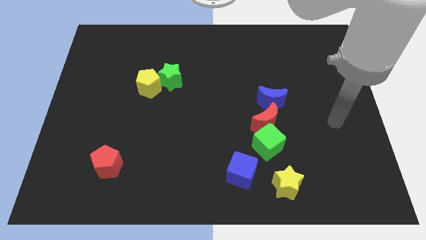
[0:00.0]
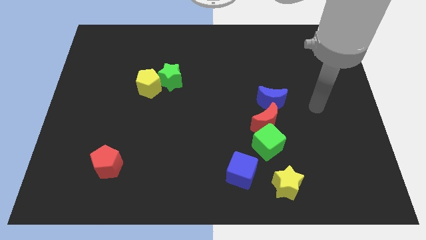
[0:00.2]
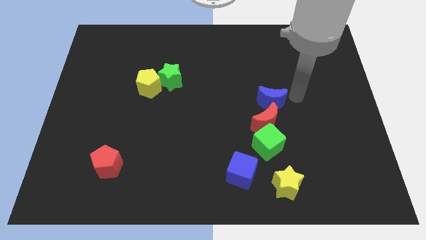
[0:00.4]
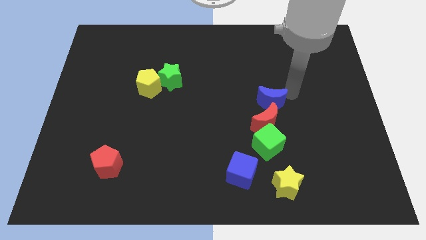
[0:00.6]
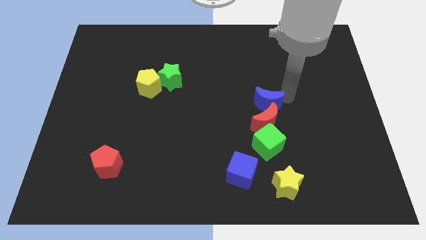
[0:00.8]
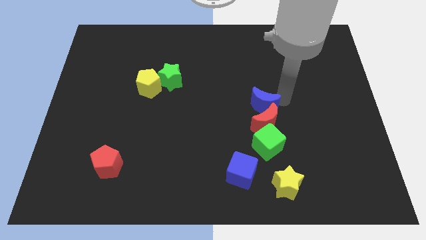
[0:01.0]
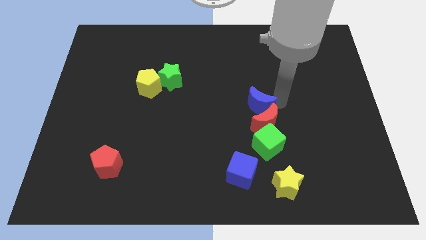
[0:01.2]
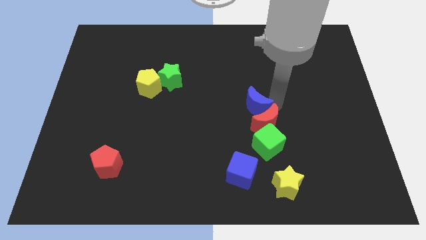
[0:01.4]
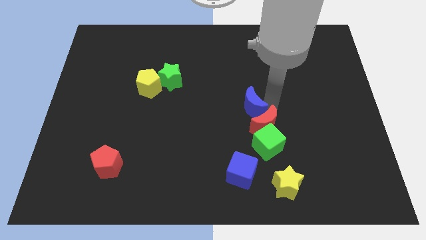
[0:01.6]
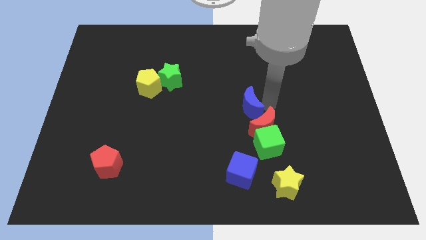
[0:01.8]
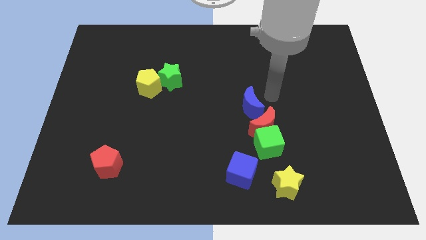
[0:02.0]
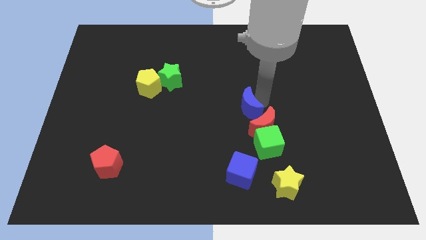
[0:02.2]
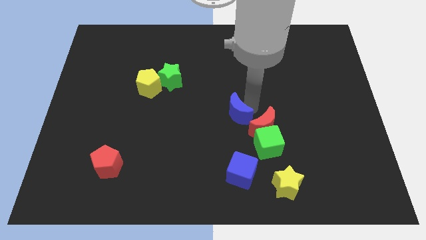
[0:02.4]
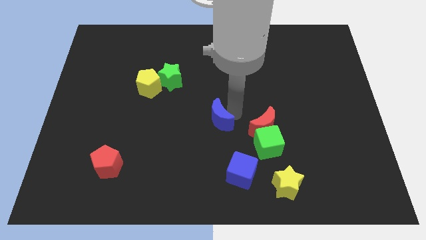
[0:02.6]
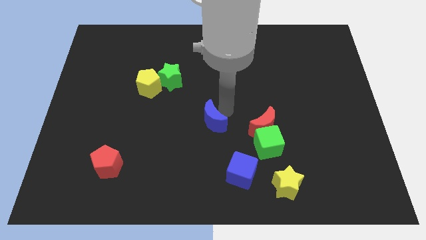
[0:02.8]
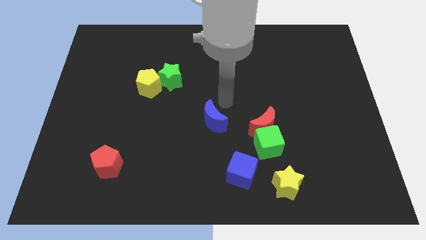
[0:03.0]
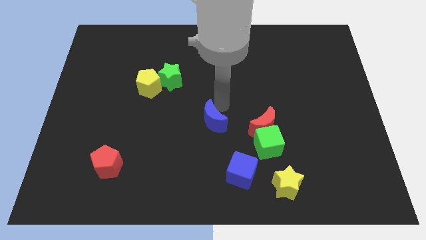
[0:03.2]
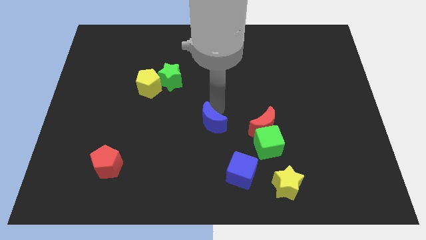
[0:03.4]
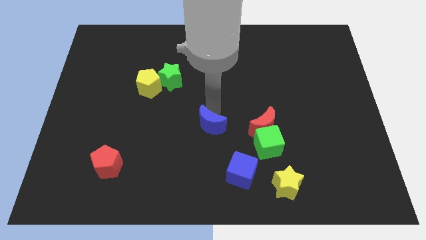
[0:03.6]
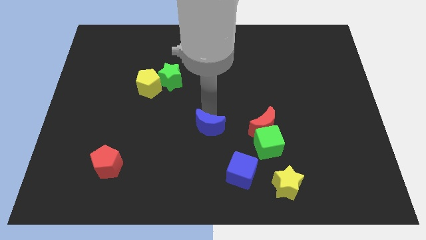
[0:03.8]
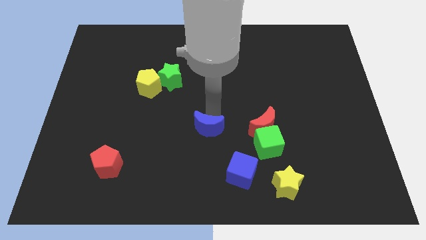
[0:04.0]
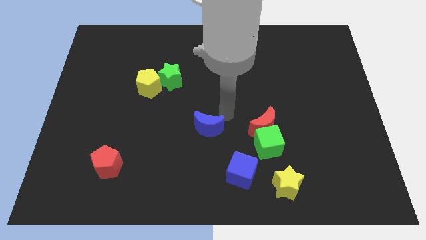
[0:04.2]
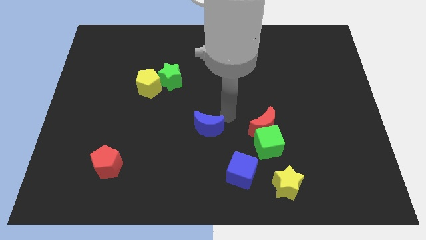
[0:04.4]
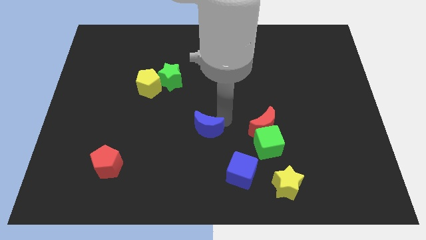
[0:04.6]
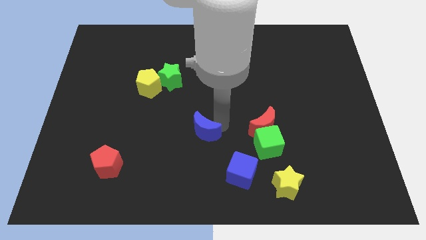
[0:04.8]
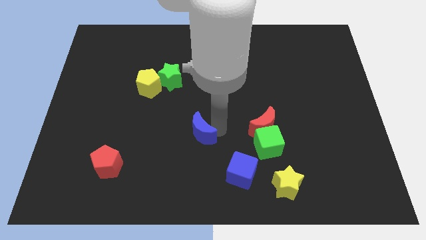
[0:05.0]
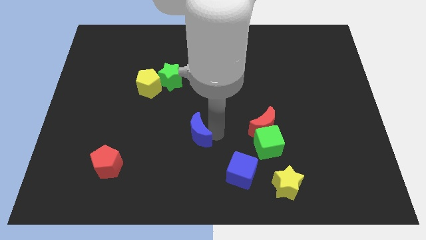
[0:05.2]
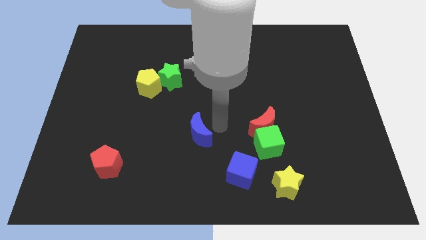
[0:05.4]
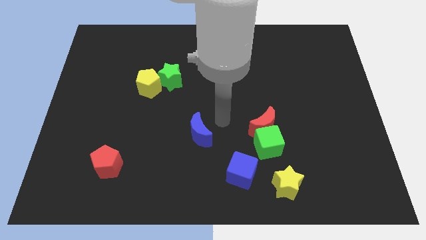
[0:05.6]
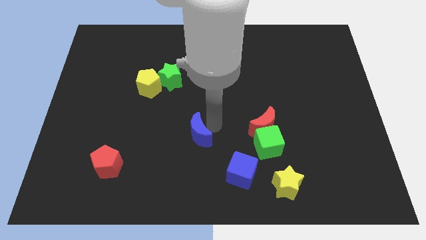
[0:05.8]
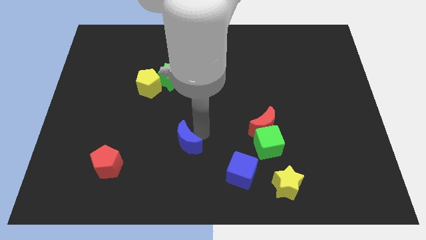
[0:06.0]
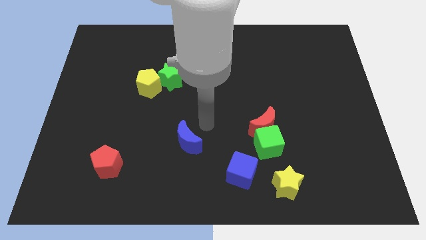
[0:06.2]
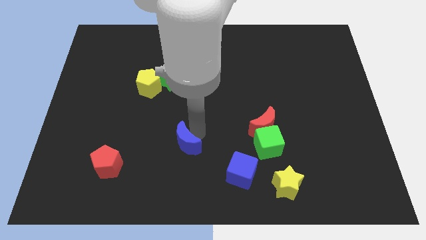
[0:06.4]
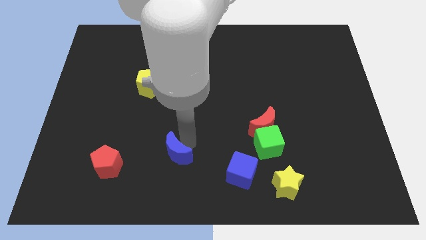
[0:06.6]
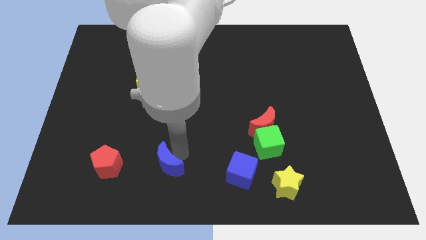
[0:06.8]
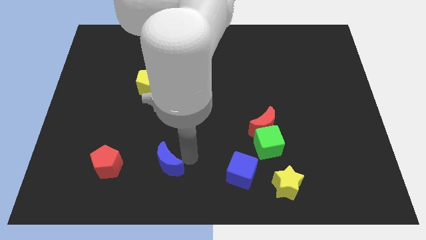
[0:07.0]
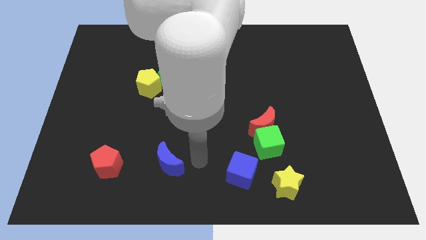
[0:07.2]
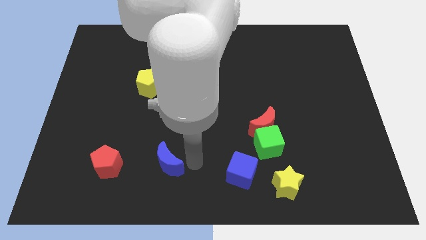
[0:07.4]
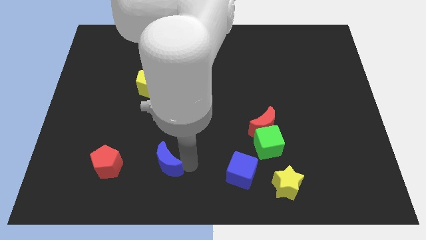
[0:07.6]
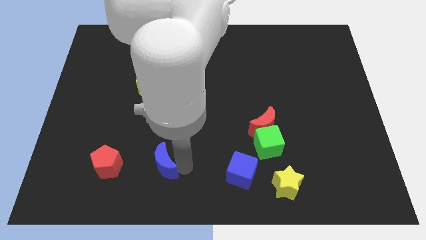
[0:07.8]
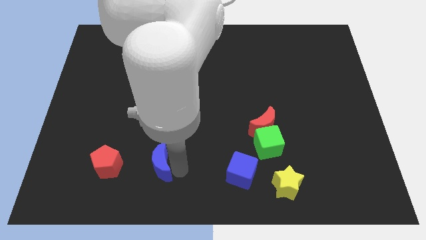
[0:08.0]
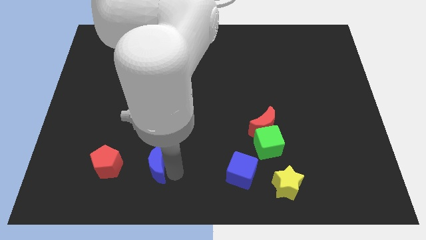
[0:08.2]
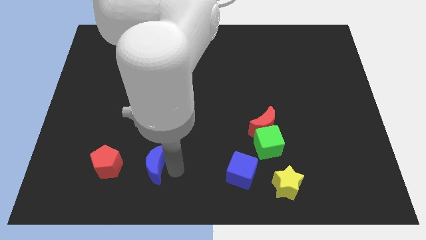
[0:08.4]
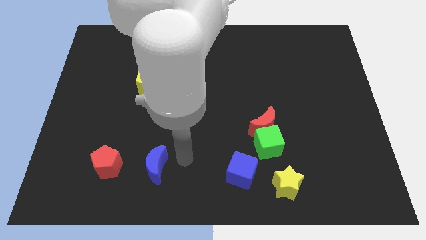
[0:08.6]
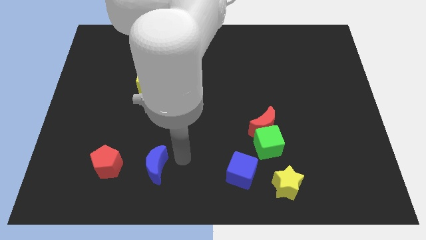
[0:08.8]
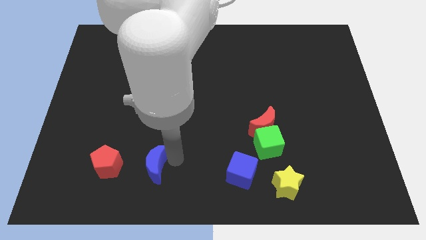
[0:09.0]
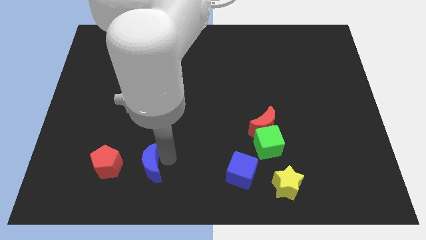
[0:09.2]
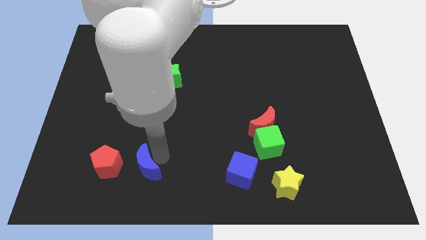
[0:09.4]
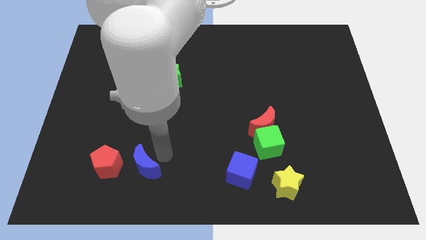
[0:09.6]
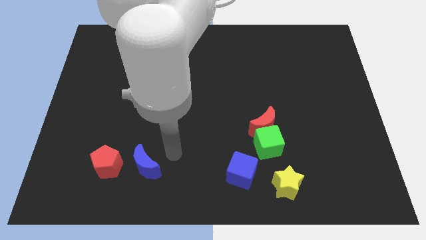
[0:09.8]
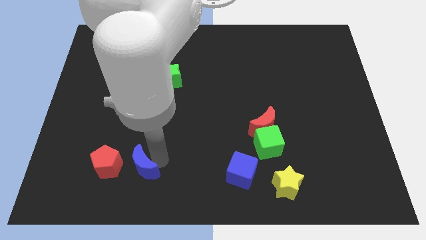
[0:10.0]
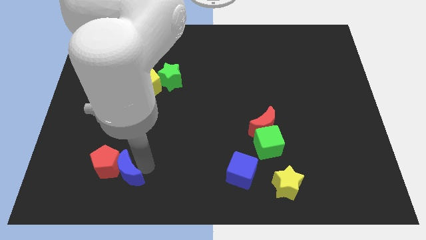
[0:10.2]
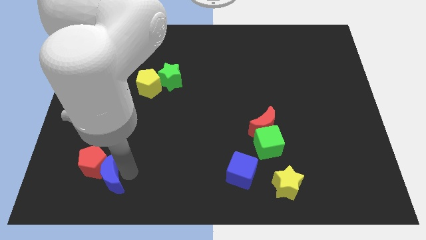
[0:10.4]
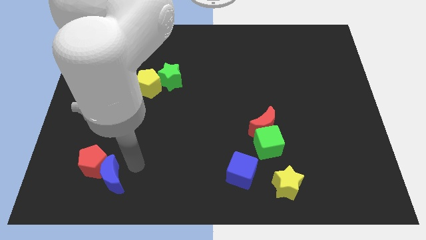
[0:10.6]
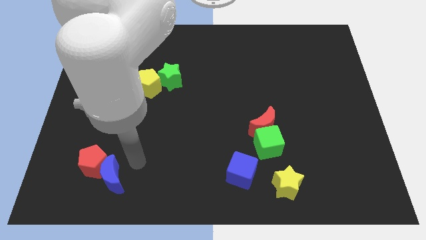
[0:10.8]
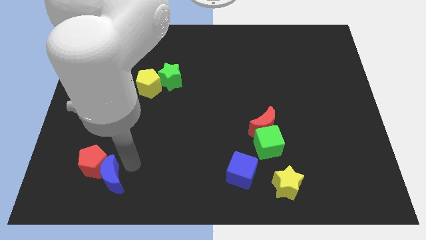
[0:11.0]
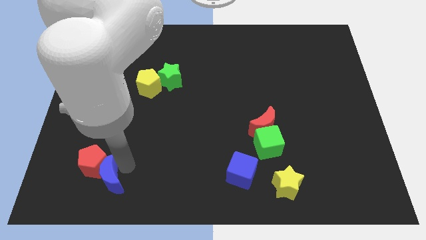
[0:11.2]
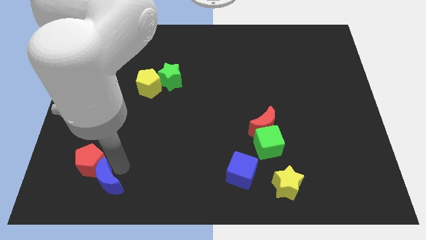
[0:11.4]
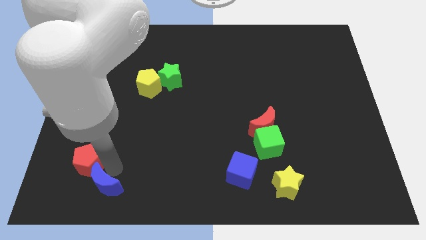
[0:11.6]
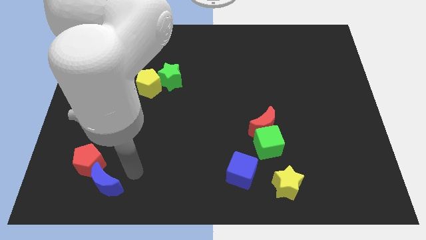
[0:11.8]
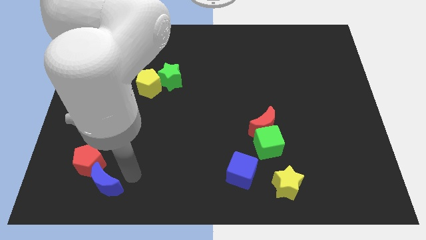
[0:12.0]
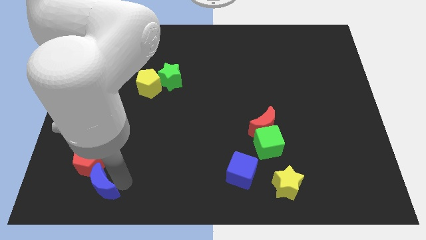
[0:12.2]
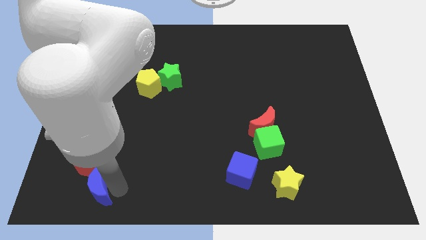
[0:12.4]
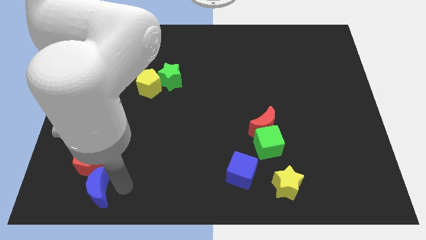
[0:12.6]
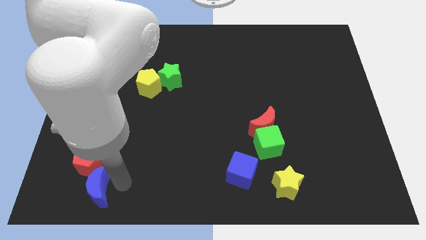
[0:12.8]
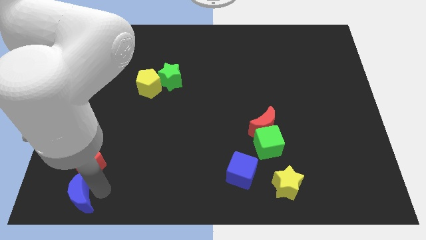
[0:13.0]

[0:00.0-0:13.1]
push the blue moon to the lower left corner
